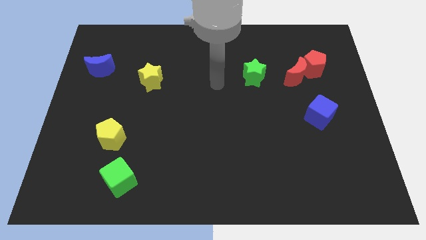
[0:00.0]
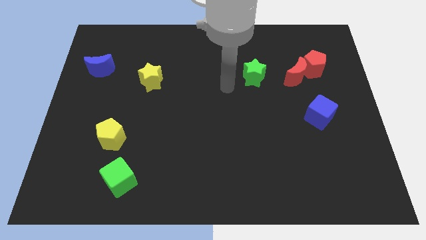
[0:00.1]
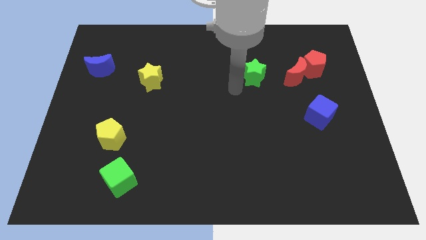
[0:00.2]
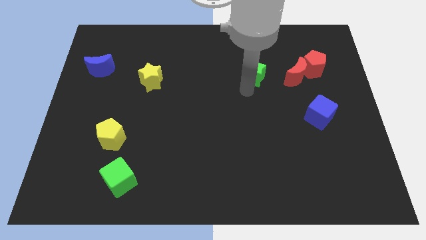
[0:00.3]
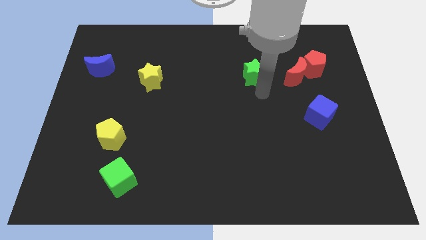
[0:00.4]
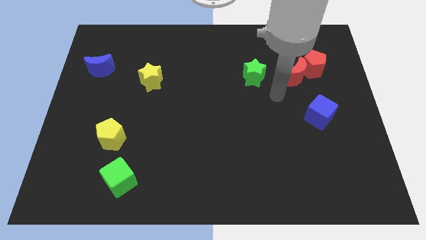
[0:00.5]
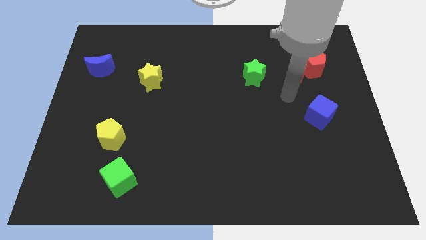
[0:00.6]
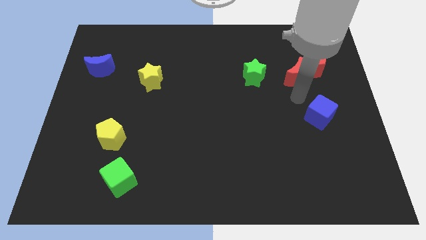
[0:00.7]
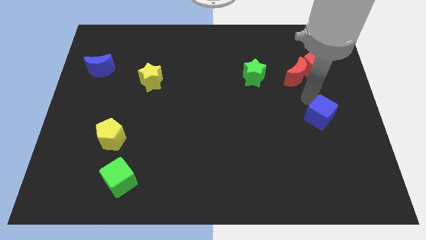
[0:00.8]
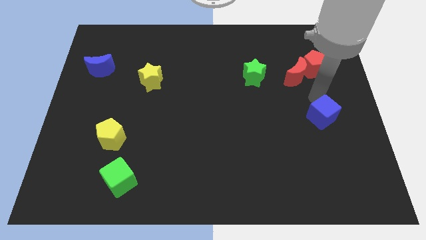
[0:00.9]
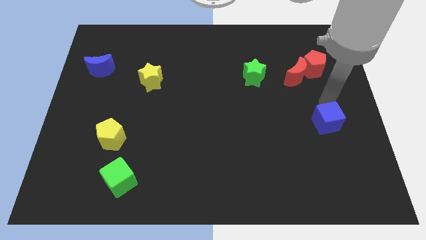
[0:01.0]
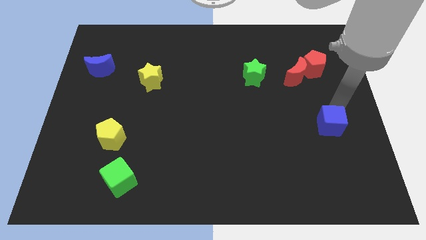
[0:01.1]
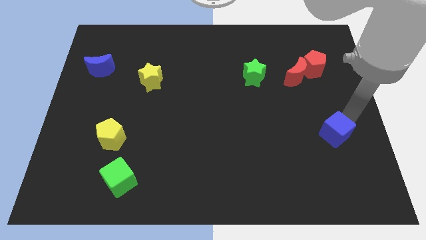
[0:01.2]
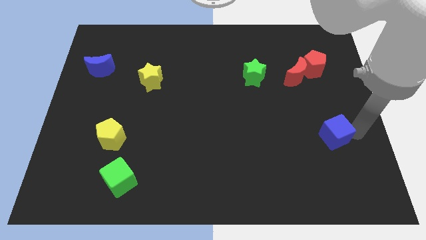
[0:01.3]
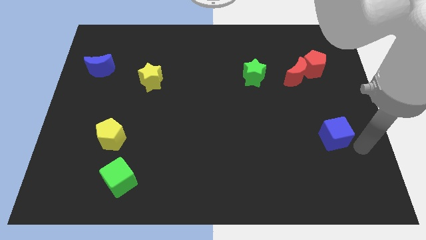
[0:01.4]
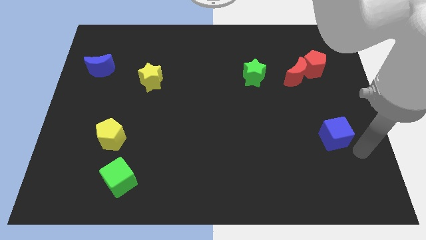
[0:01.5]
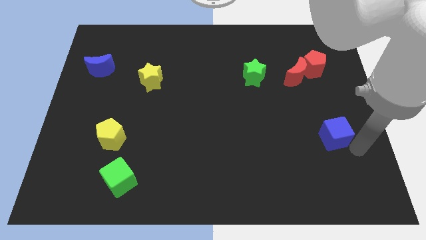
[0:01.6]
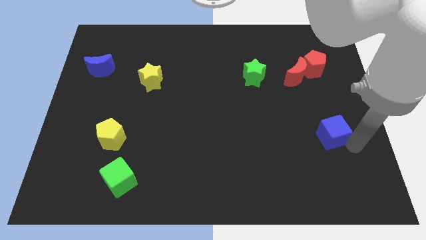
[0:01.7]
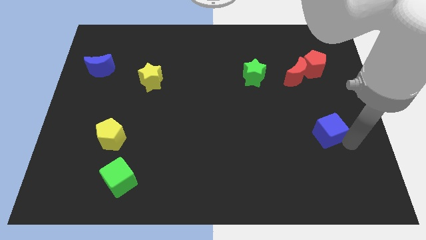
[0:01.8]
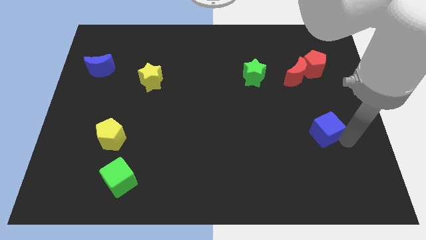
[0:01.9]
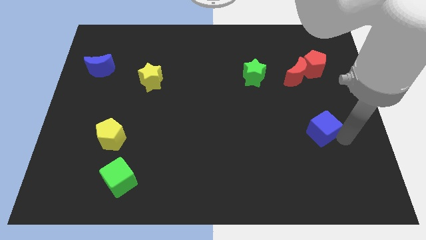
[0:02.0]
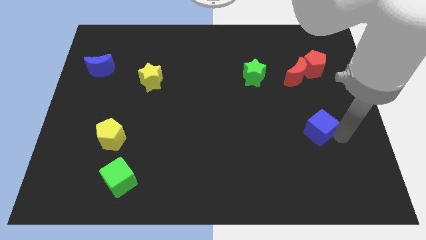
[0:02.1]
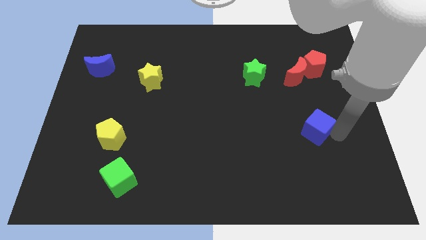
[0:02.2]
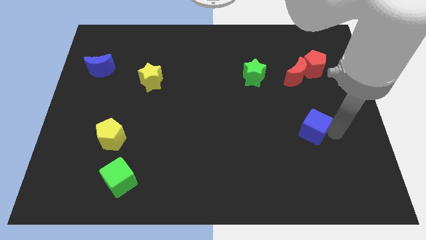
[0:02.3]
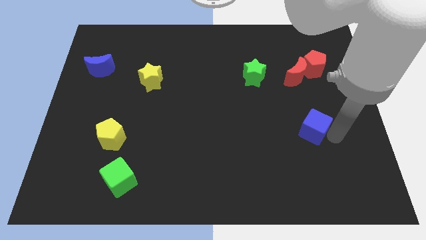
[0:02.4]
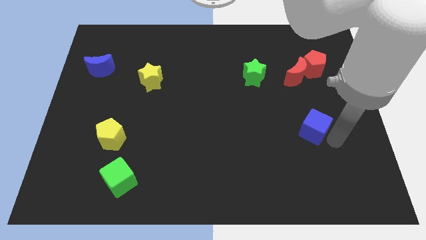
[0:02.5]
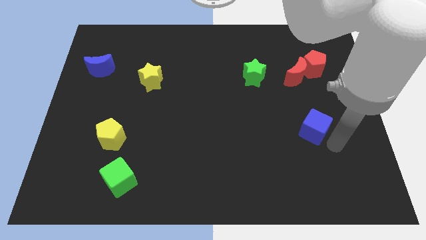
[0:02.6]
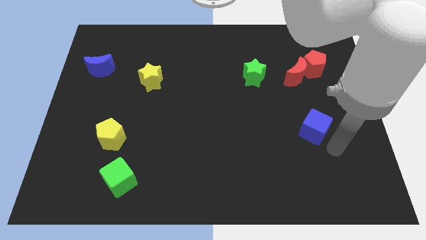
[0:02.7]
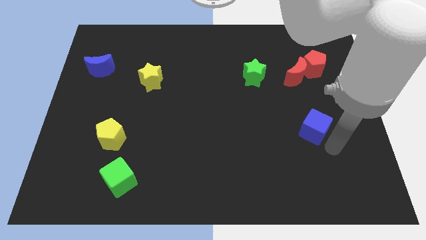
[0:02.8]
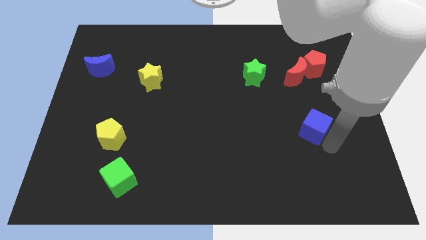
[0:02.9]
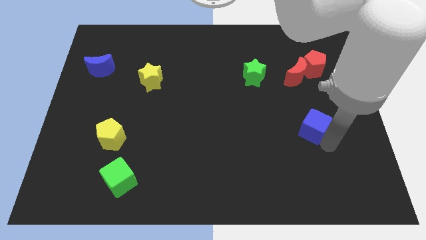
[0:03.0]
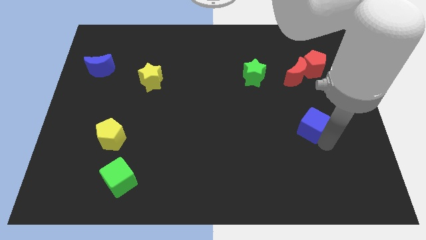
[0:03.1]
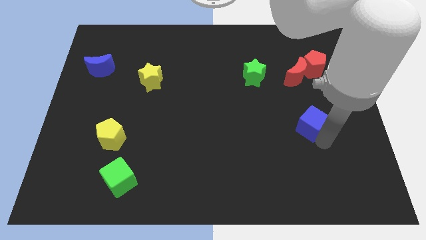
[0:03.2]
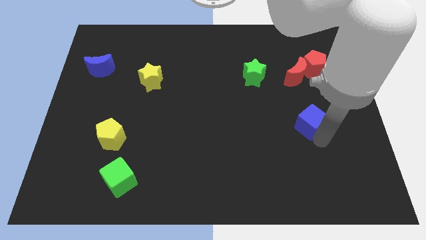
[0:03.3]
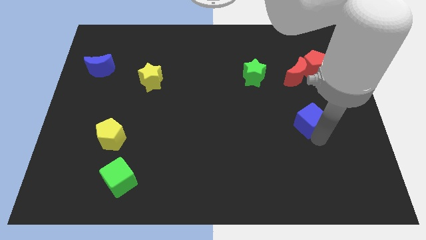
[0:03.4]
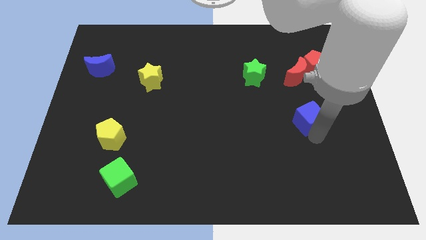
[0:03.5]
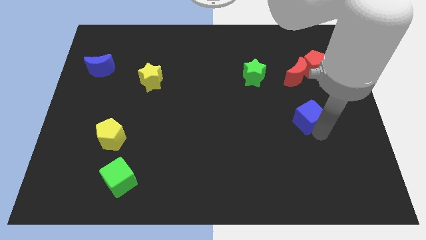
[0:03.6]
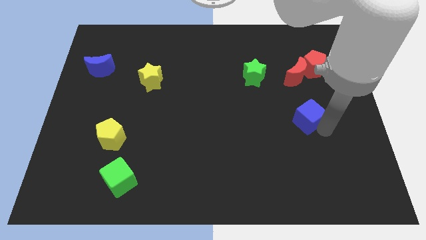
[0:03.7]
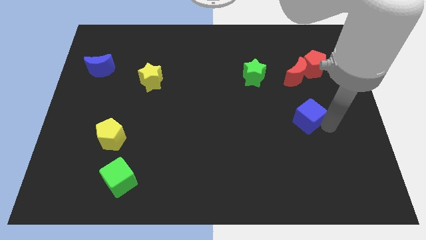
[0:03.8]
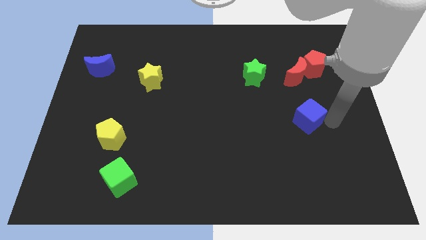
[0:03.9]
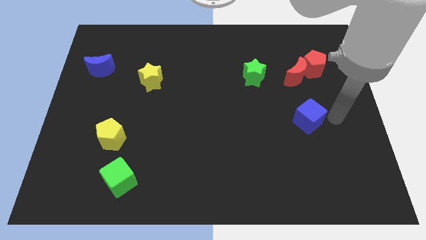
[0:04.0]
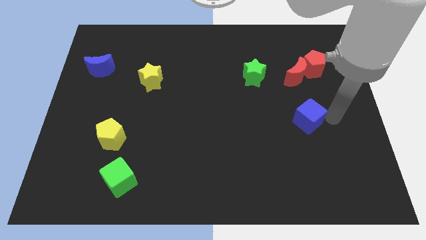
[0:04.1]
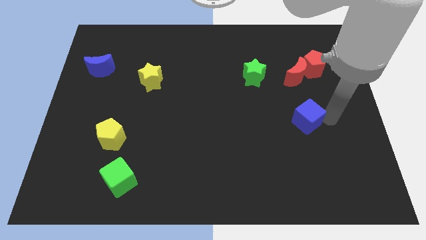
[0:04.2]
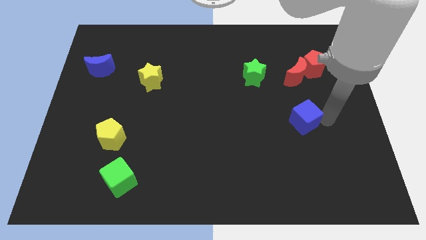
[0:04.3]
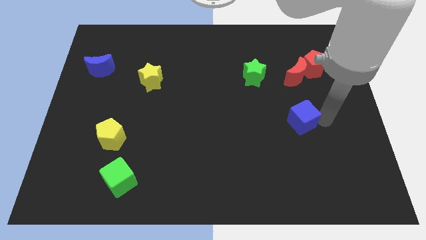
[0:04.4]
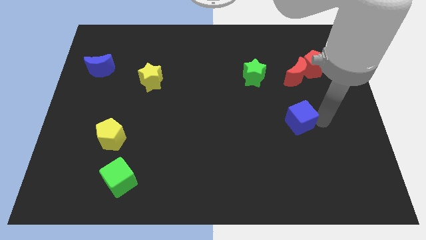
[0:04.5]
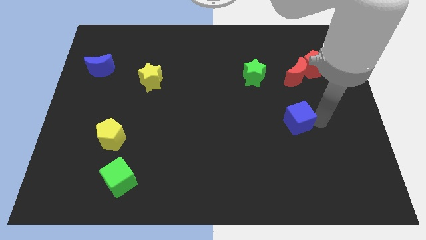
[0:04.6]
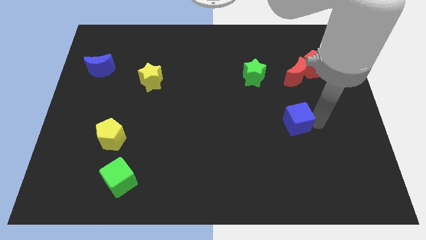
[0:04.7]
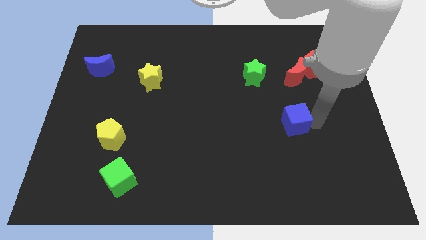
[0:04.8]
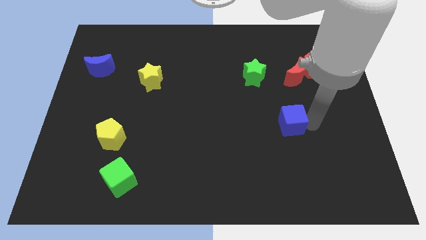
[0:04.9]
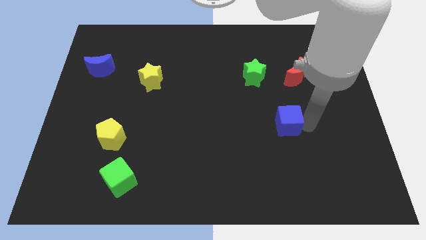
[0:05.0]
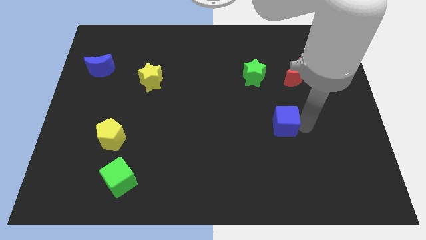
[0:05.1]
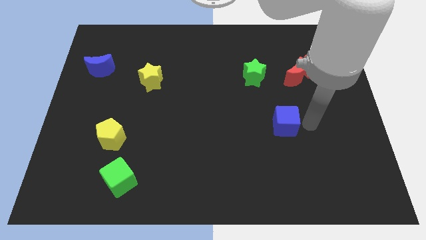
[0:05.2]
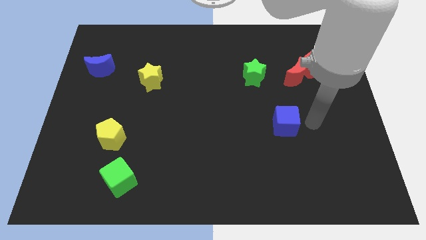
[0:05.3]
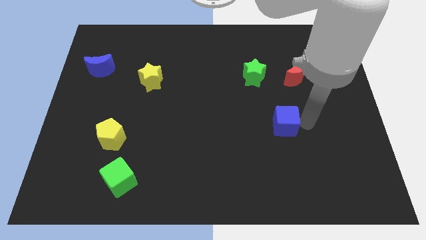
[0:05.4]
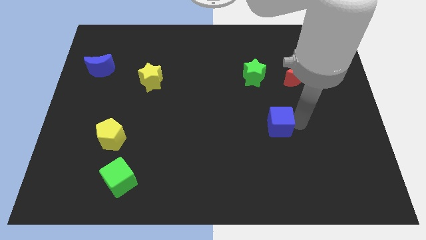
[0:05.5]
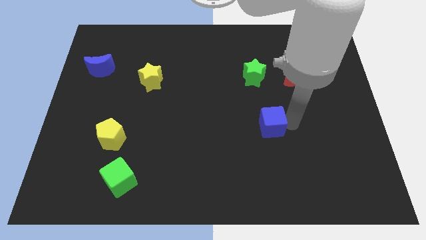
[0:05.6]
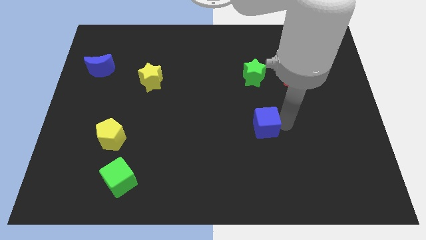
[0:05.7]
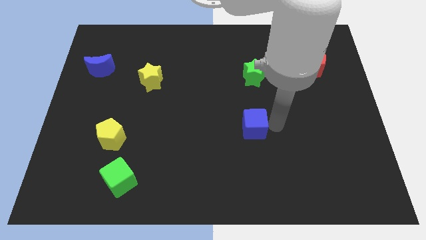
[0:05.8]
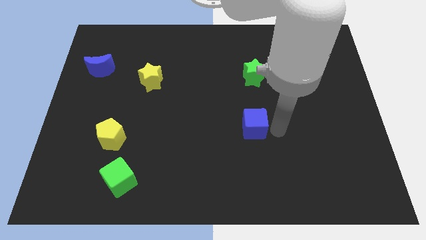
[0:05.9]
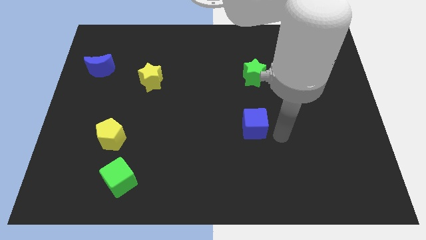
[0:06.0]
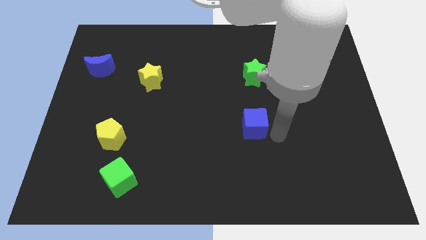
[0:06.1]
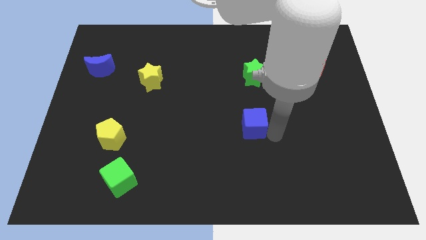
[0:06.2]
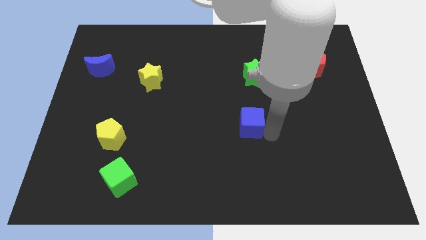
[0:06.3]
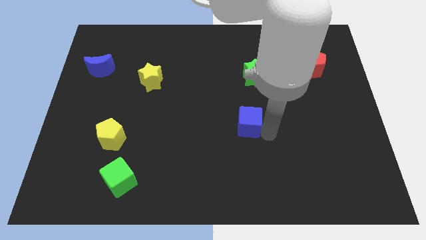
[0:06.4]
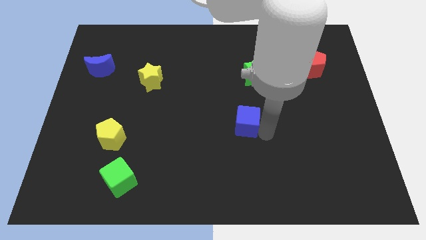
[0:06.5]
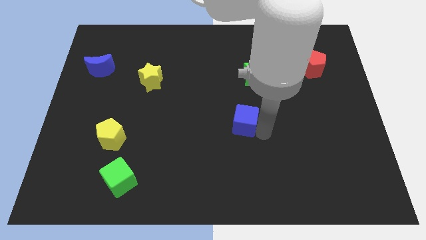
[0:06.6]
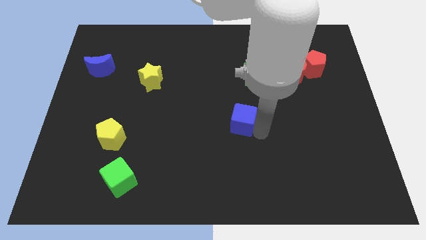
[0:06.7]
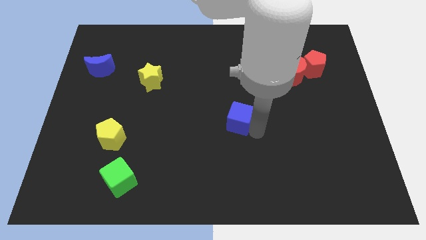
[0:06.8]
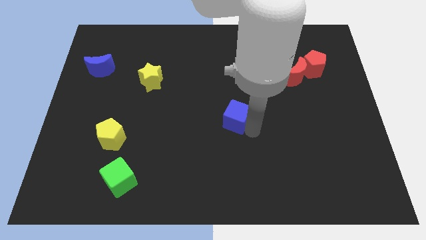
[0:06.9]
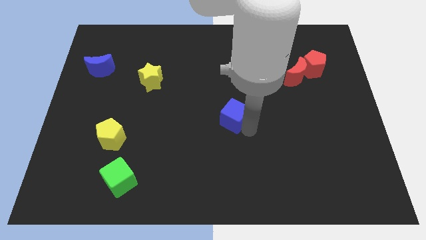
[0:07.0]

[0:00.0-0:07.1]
push the blue cube left

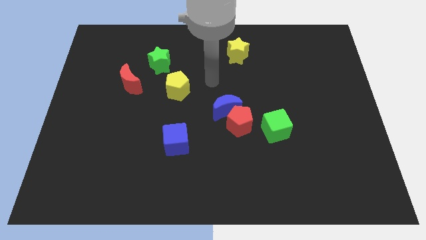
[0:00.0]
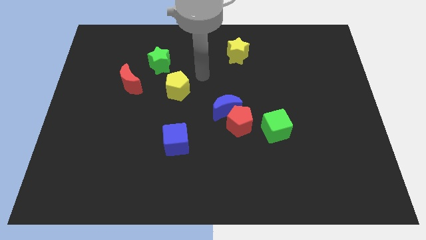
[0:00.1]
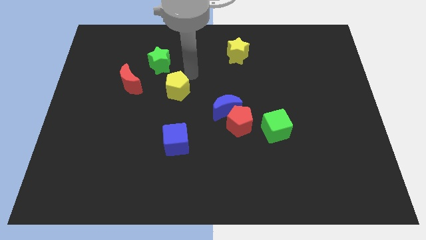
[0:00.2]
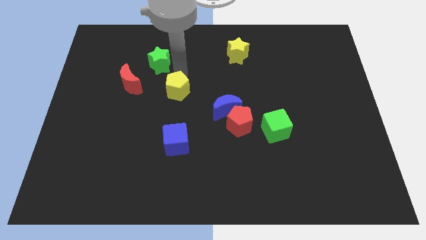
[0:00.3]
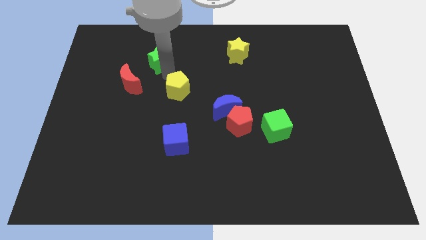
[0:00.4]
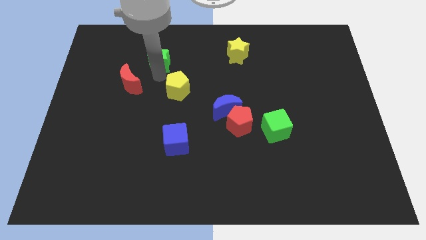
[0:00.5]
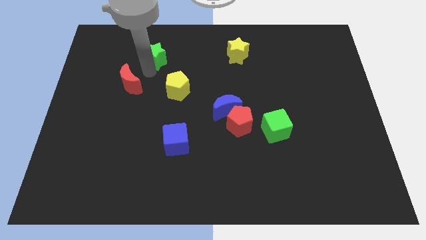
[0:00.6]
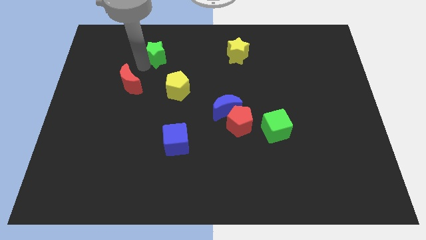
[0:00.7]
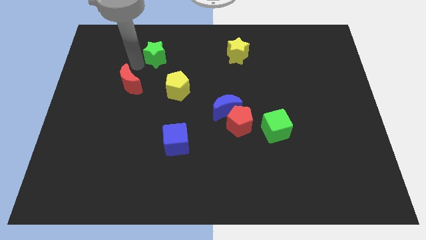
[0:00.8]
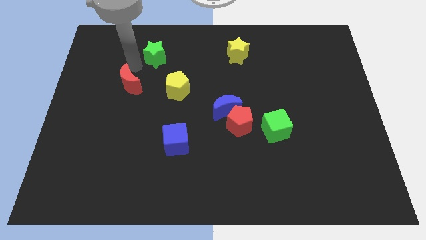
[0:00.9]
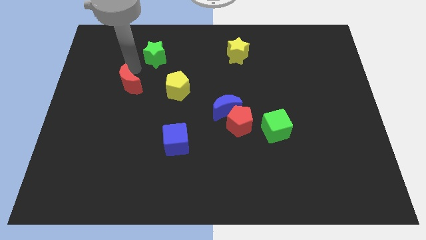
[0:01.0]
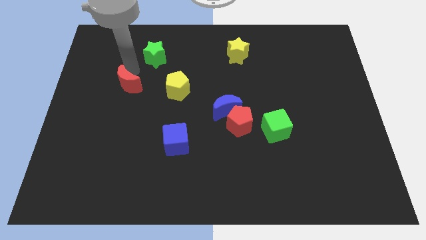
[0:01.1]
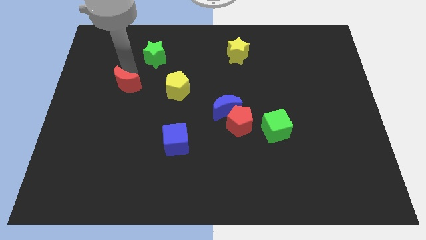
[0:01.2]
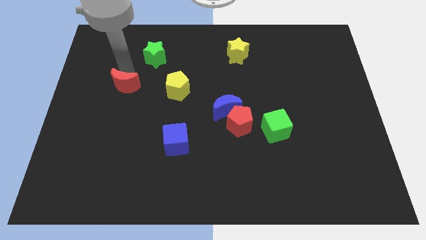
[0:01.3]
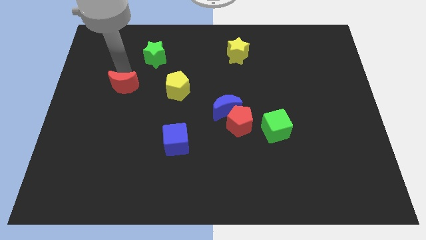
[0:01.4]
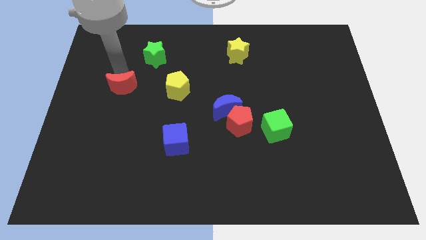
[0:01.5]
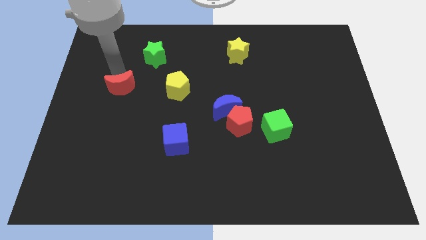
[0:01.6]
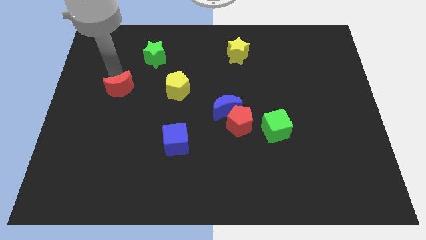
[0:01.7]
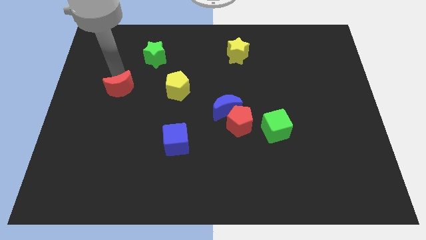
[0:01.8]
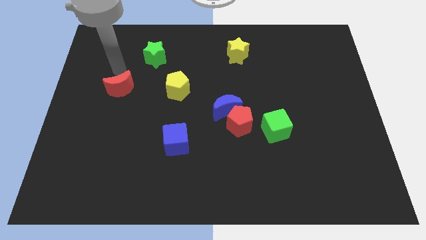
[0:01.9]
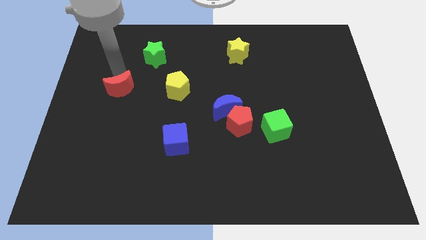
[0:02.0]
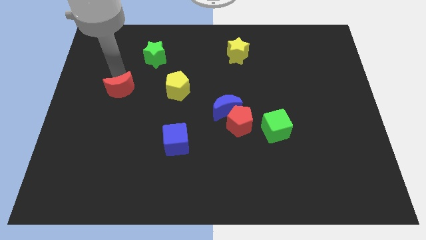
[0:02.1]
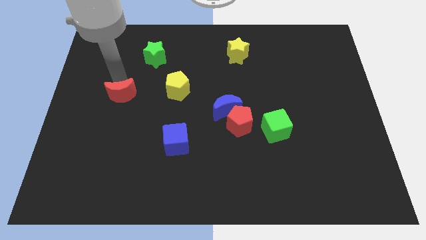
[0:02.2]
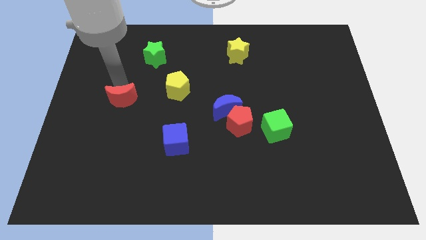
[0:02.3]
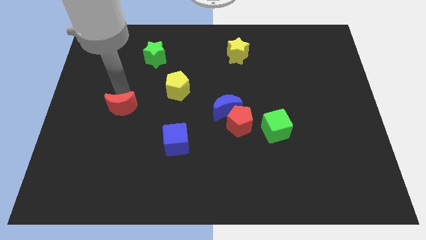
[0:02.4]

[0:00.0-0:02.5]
slide the red moon down slightly
